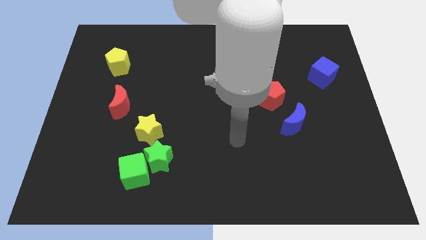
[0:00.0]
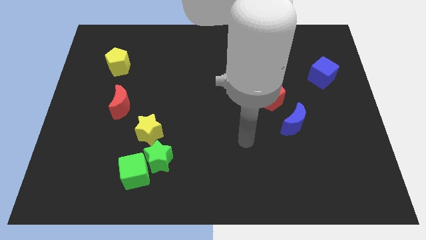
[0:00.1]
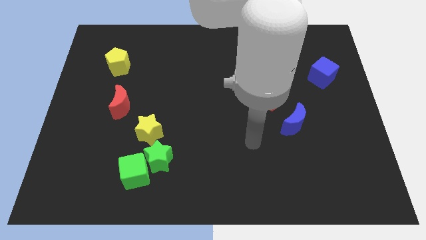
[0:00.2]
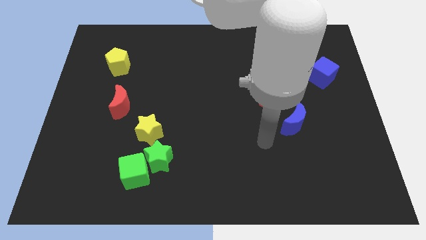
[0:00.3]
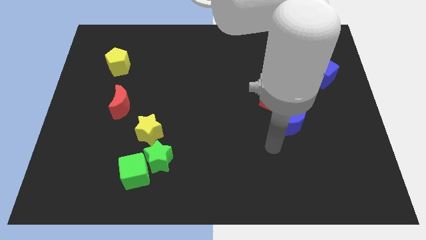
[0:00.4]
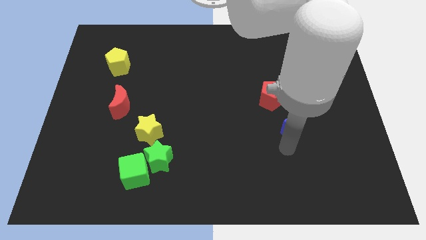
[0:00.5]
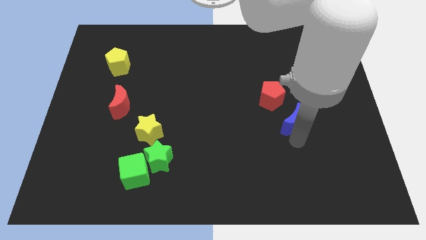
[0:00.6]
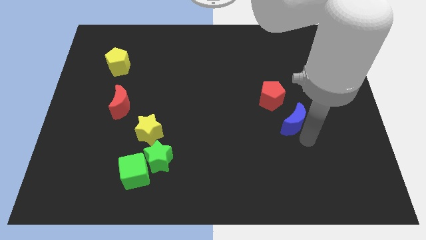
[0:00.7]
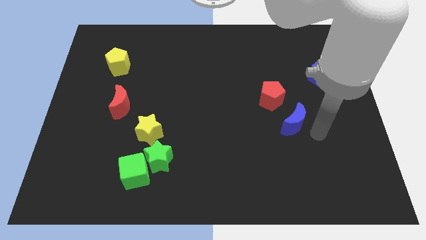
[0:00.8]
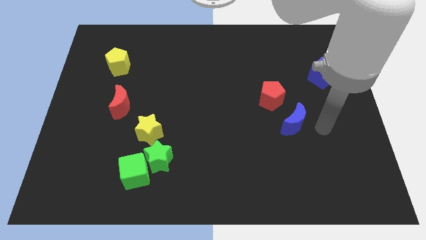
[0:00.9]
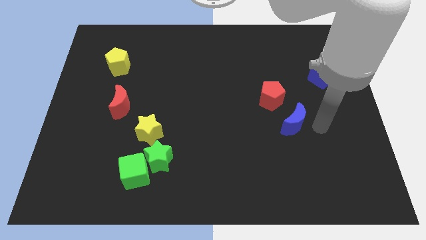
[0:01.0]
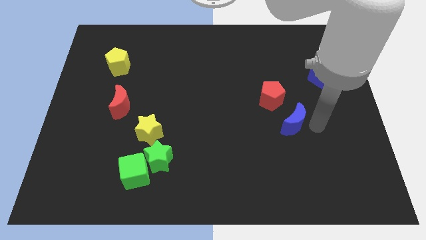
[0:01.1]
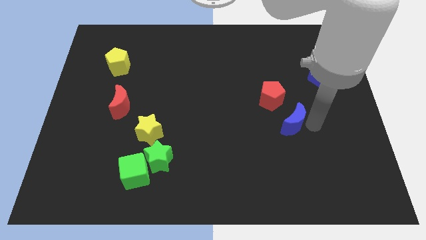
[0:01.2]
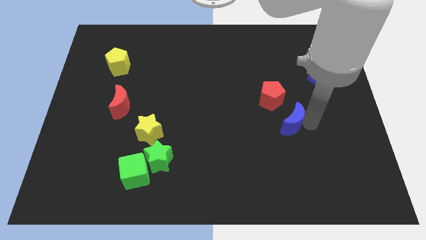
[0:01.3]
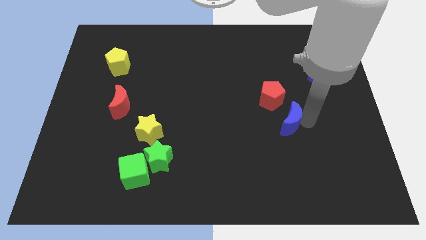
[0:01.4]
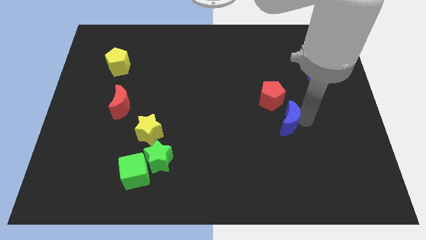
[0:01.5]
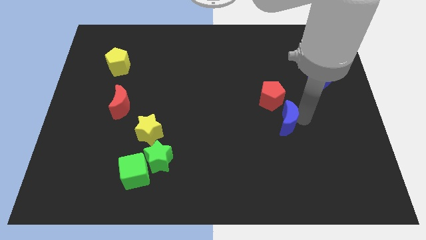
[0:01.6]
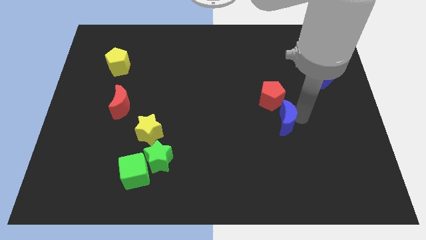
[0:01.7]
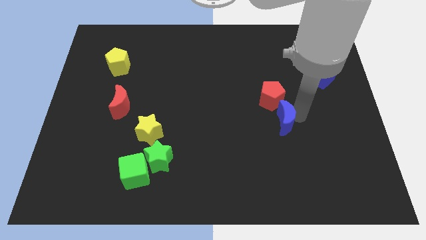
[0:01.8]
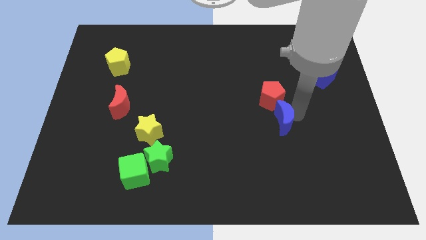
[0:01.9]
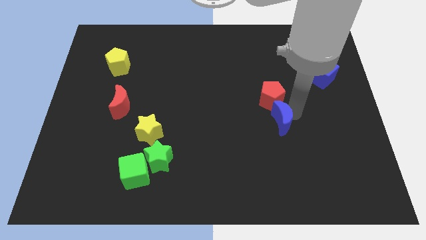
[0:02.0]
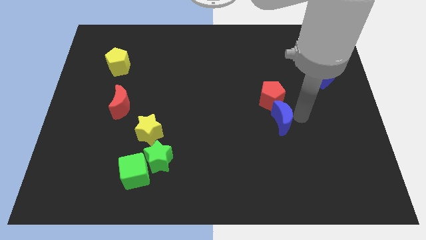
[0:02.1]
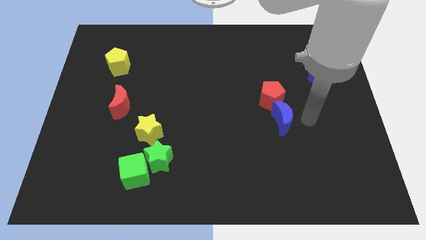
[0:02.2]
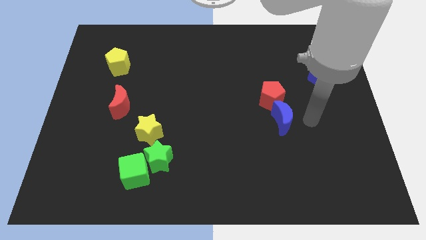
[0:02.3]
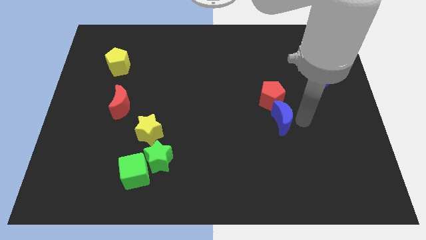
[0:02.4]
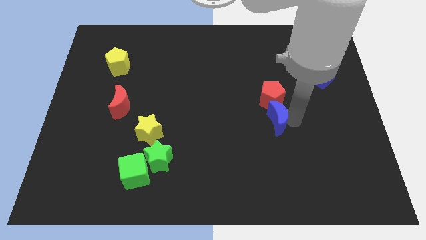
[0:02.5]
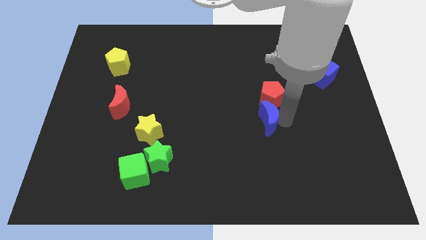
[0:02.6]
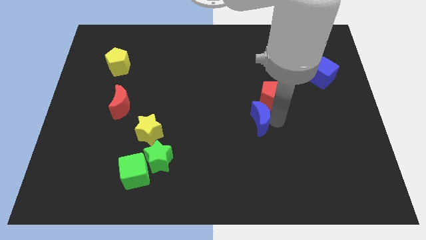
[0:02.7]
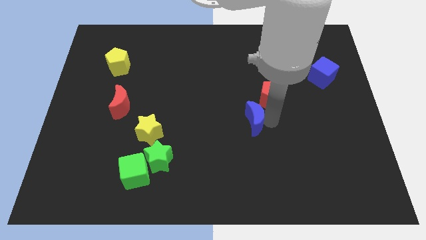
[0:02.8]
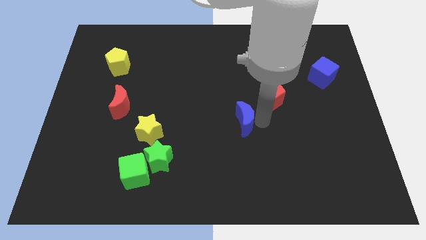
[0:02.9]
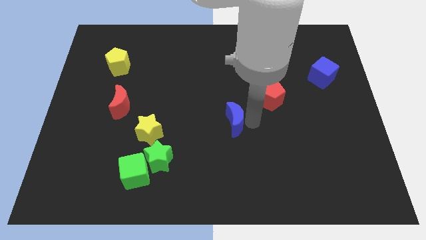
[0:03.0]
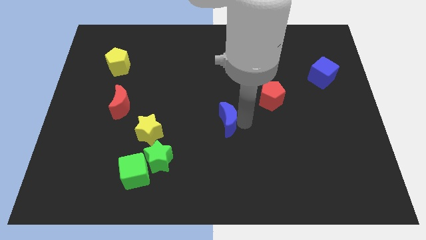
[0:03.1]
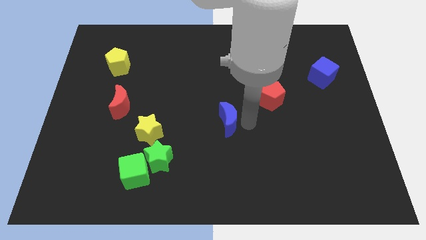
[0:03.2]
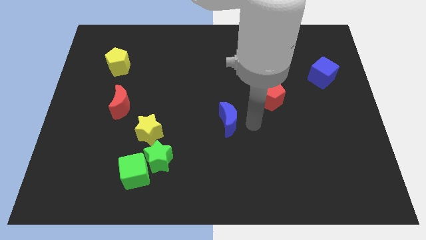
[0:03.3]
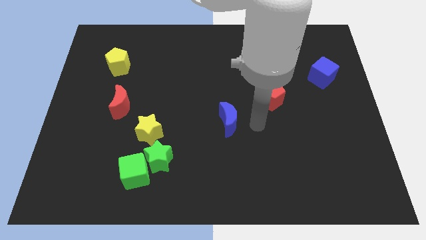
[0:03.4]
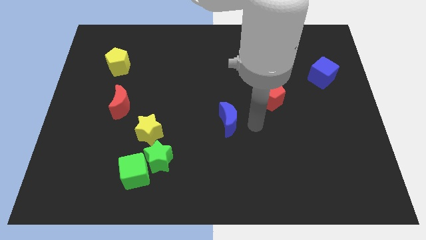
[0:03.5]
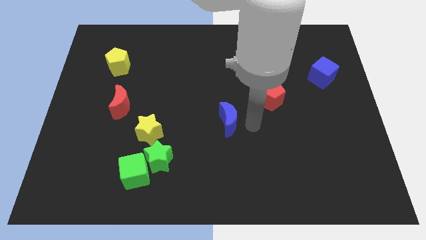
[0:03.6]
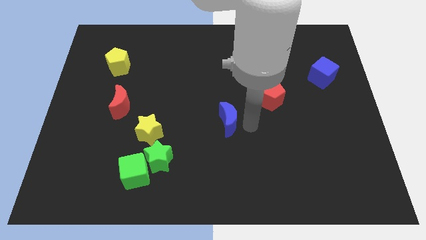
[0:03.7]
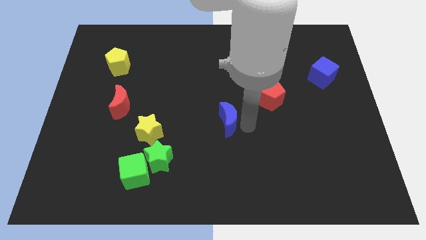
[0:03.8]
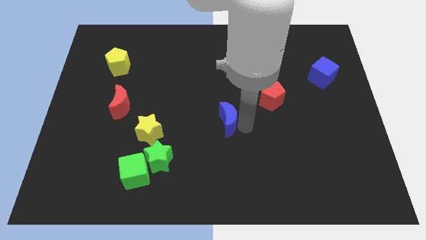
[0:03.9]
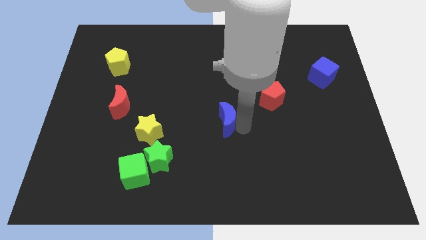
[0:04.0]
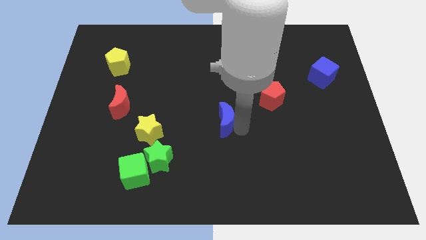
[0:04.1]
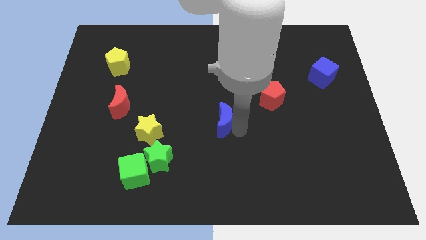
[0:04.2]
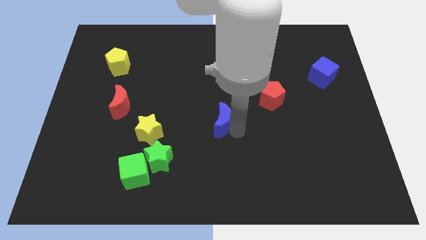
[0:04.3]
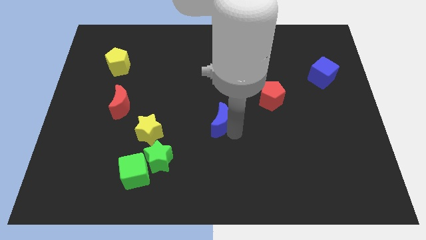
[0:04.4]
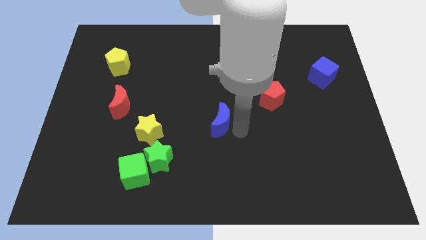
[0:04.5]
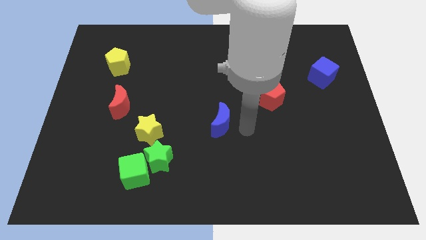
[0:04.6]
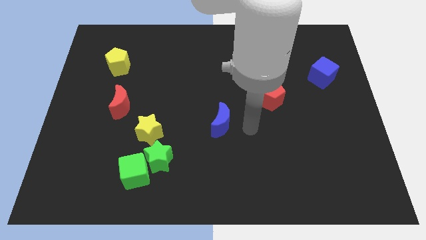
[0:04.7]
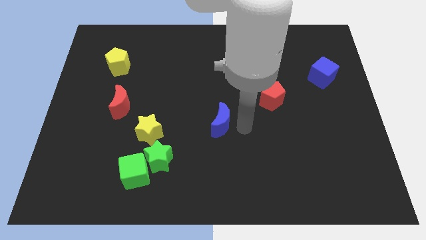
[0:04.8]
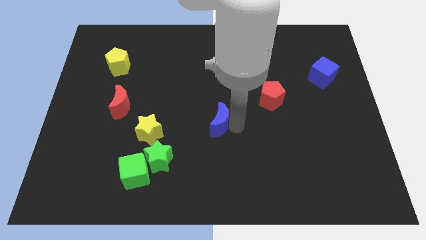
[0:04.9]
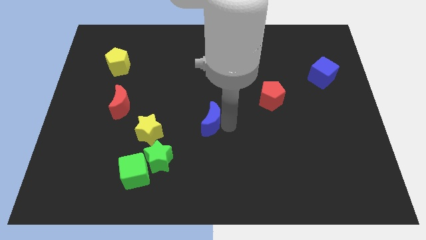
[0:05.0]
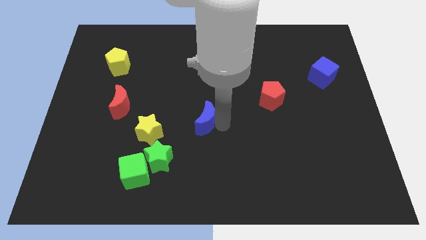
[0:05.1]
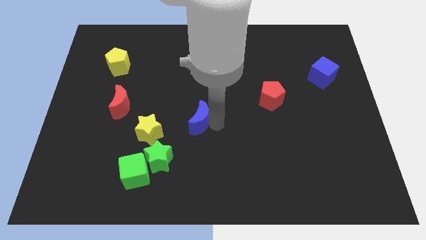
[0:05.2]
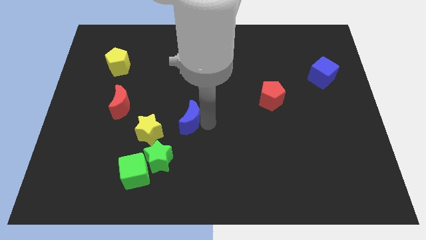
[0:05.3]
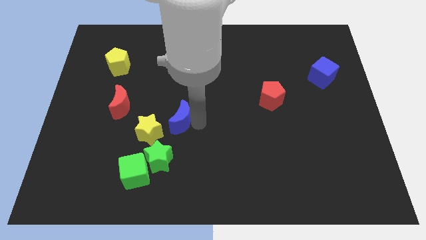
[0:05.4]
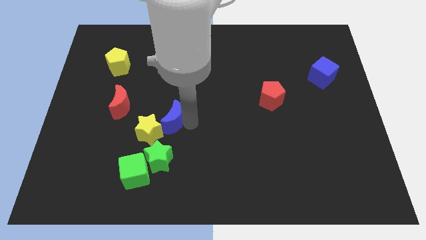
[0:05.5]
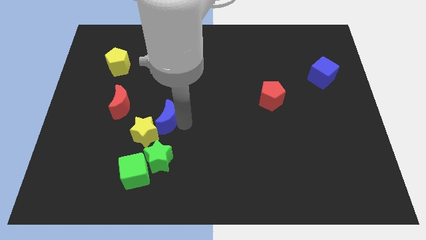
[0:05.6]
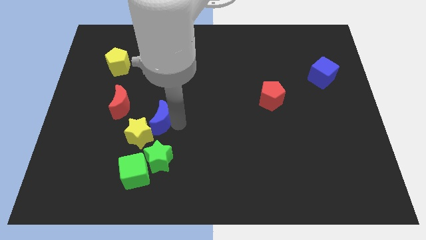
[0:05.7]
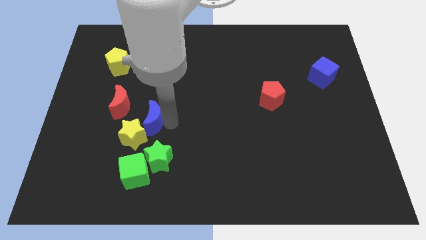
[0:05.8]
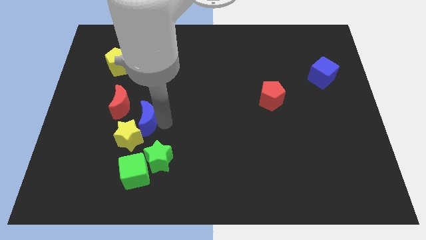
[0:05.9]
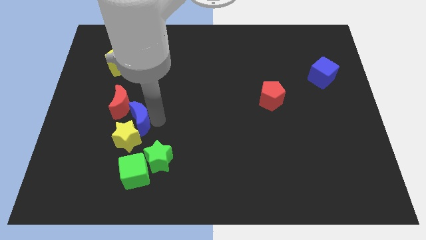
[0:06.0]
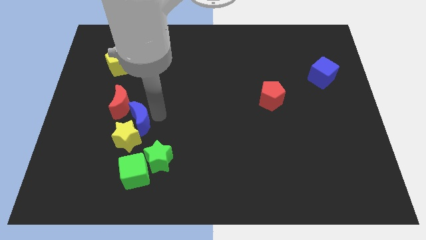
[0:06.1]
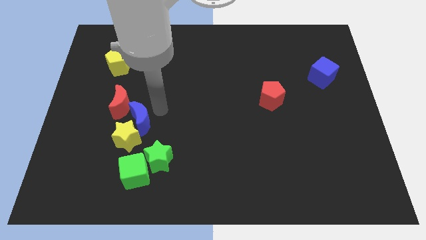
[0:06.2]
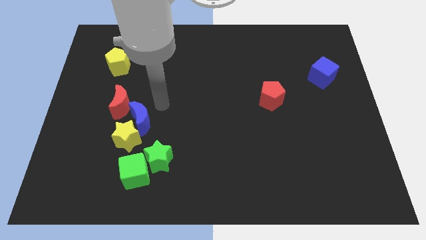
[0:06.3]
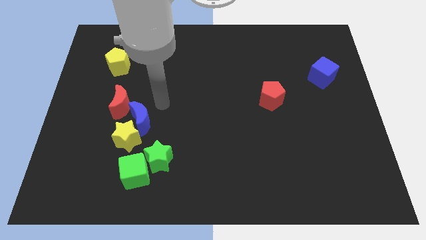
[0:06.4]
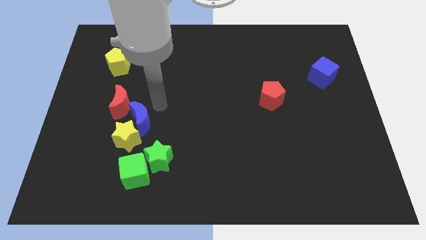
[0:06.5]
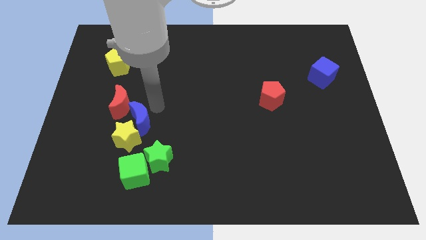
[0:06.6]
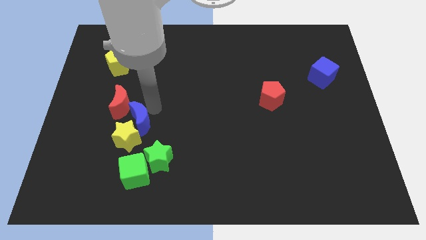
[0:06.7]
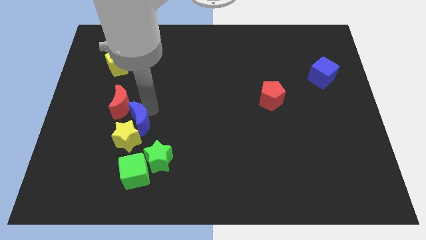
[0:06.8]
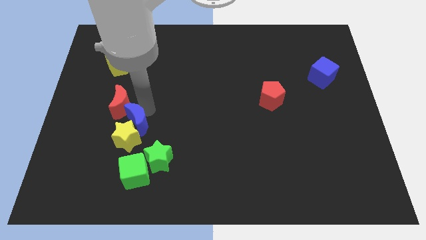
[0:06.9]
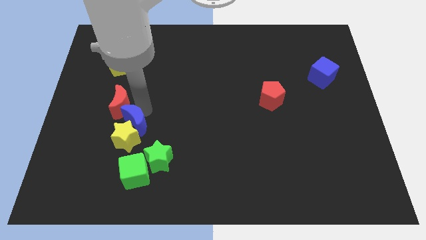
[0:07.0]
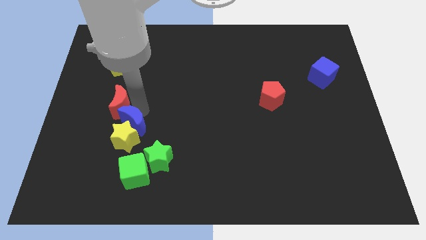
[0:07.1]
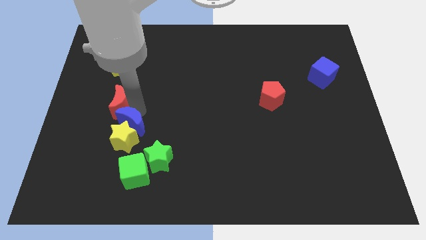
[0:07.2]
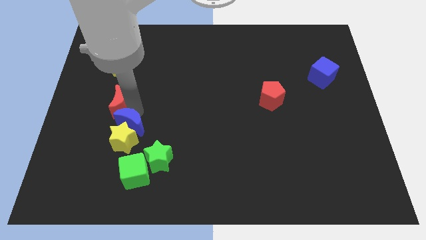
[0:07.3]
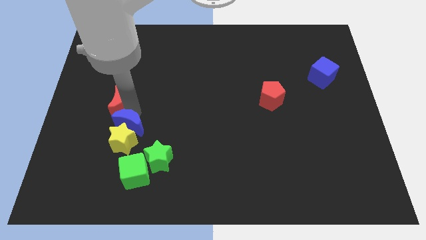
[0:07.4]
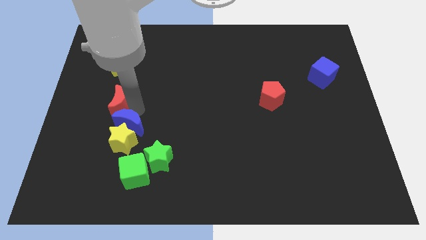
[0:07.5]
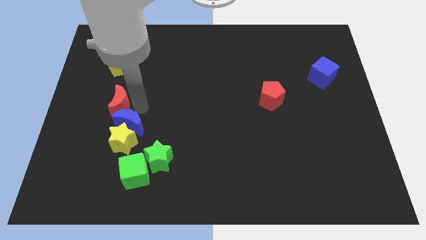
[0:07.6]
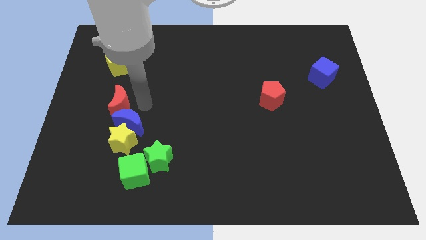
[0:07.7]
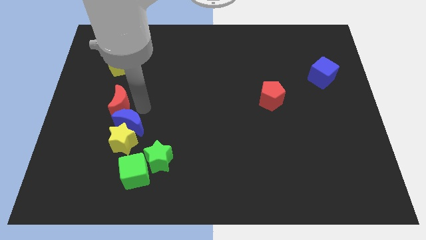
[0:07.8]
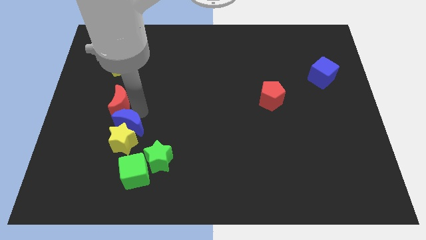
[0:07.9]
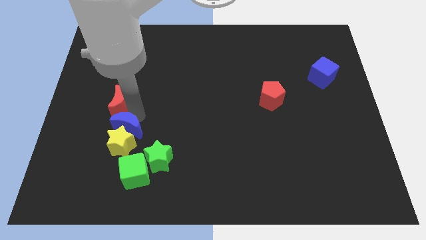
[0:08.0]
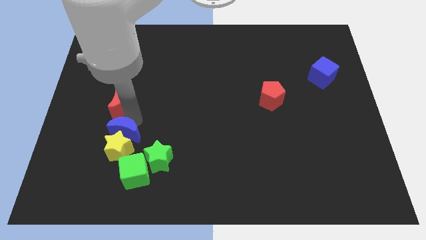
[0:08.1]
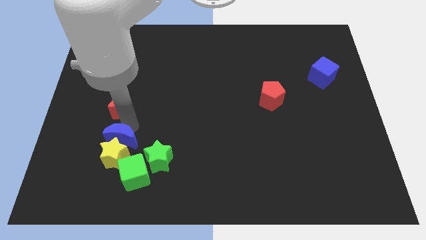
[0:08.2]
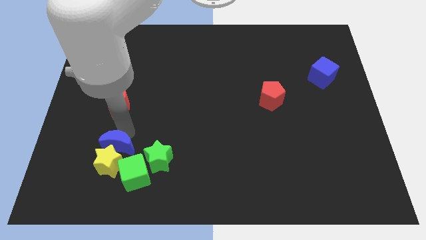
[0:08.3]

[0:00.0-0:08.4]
push the blue moon to the left side of the green star
